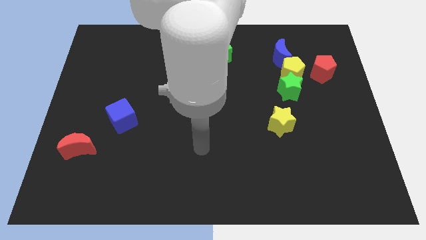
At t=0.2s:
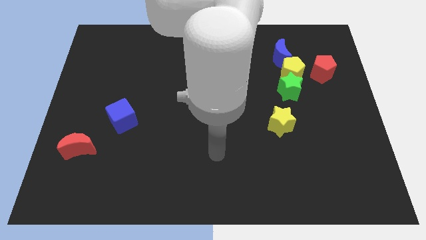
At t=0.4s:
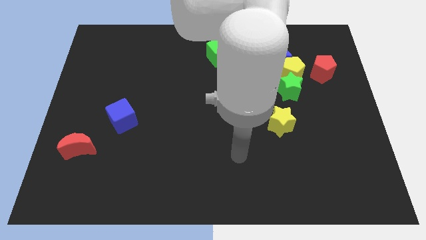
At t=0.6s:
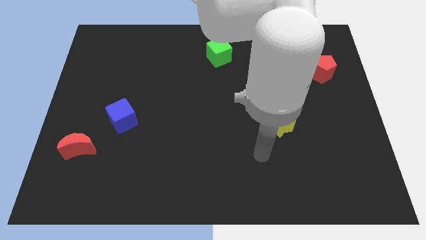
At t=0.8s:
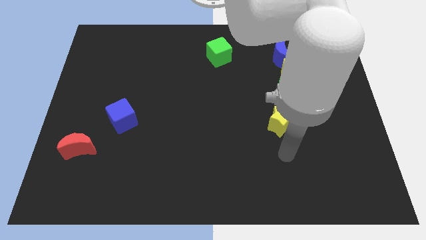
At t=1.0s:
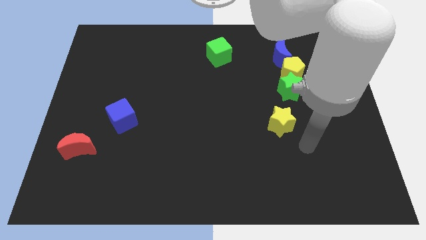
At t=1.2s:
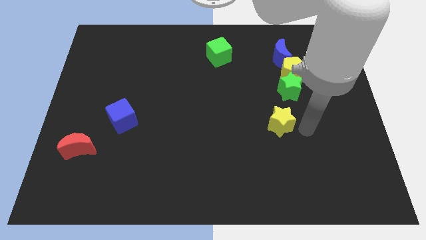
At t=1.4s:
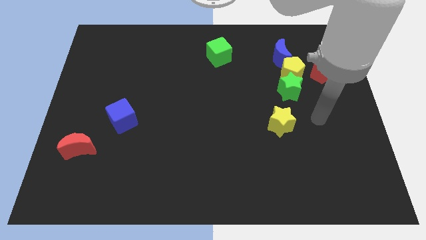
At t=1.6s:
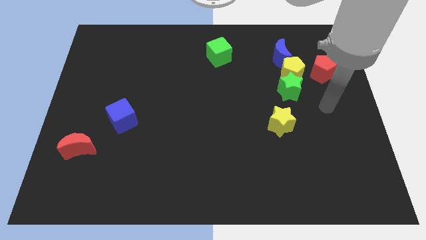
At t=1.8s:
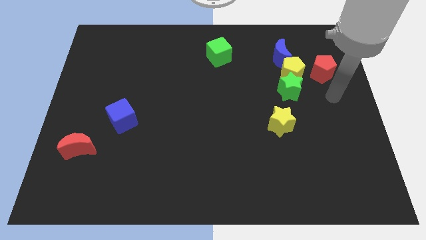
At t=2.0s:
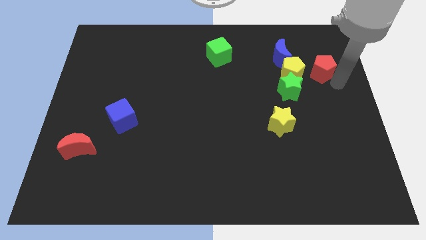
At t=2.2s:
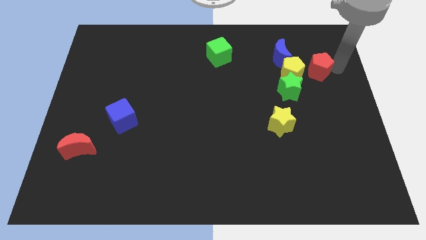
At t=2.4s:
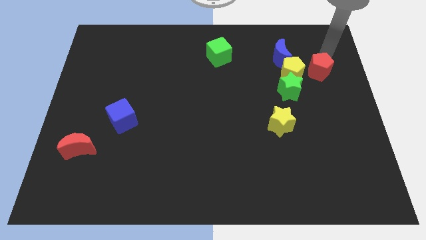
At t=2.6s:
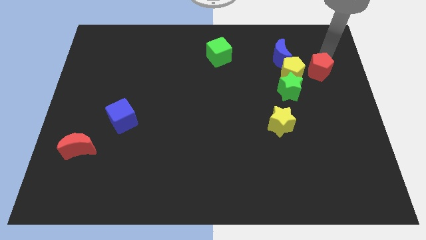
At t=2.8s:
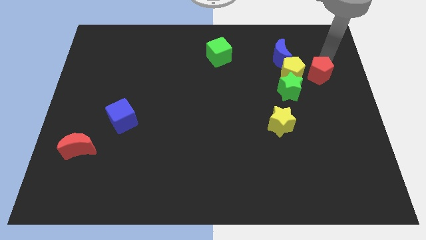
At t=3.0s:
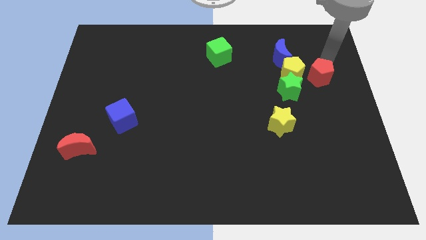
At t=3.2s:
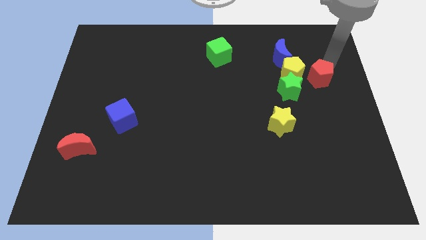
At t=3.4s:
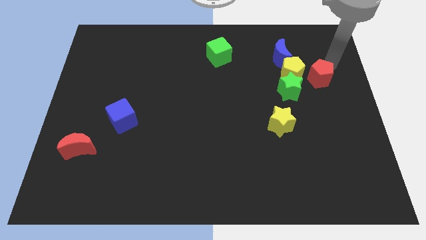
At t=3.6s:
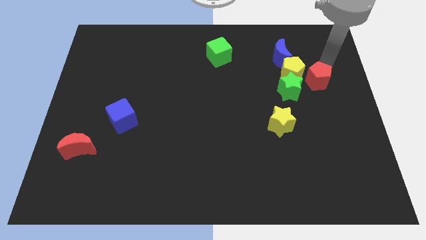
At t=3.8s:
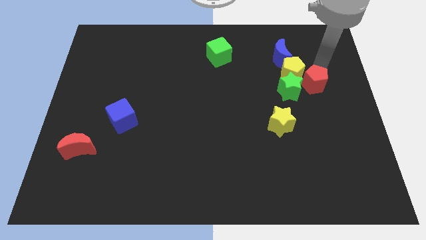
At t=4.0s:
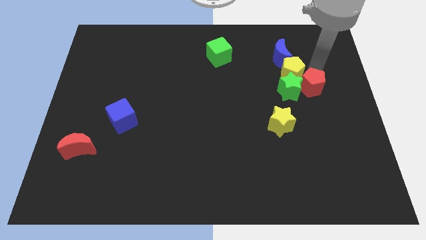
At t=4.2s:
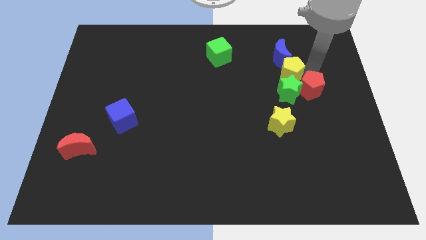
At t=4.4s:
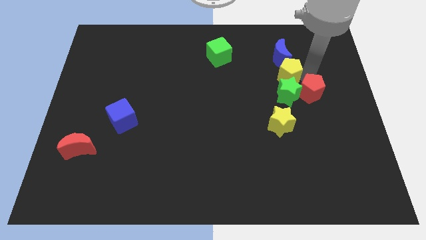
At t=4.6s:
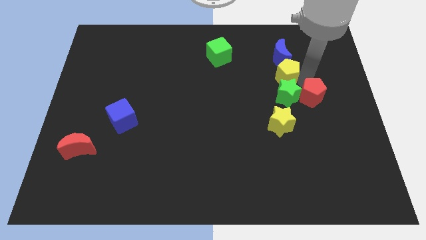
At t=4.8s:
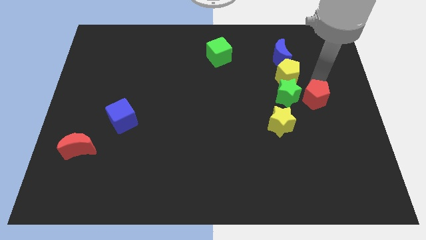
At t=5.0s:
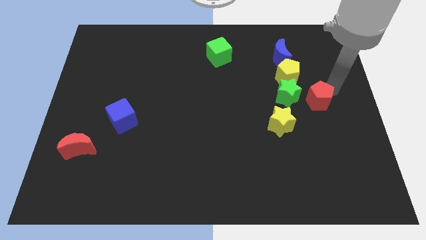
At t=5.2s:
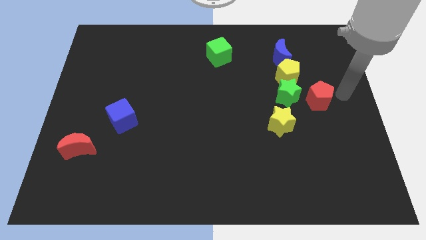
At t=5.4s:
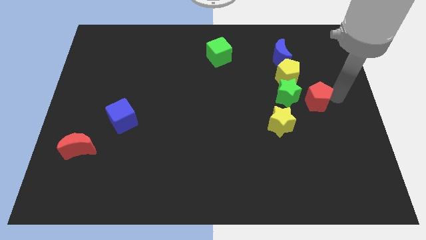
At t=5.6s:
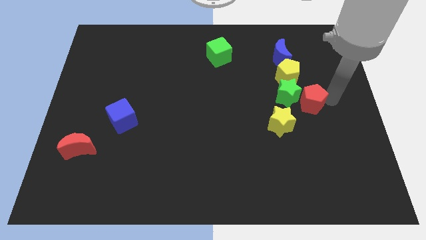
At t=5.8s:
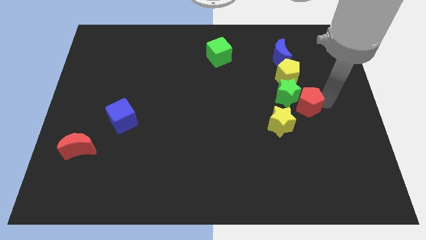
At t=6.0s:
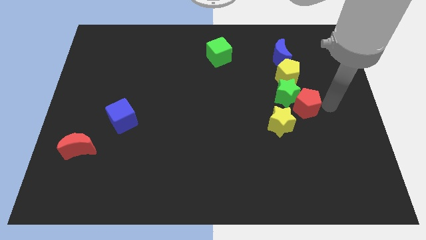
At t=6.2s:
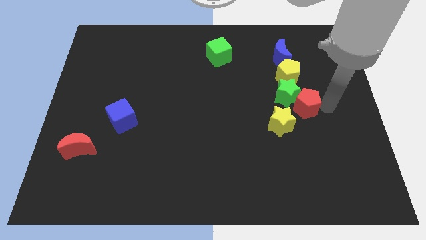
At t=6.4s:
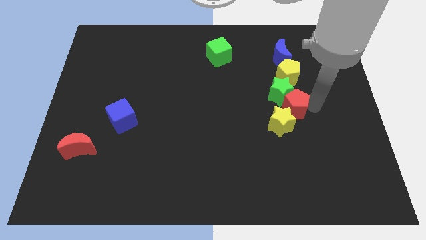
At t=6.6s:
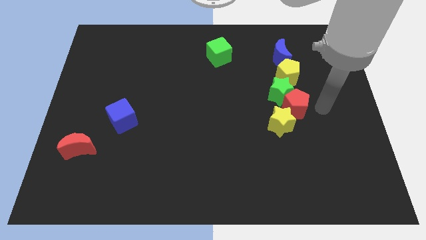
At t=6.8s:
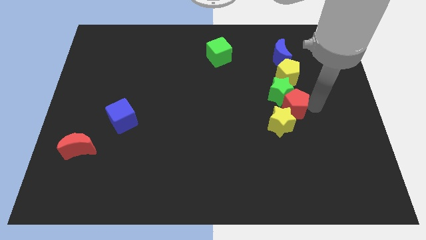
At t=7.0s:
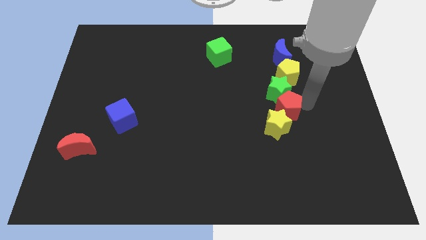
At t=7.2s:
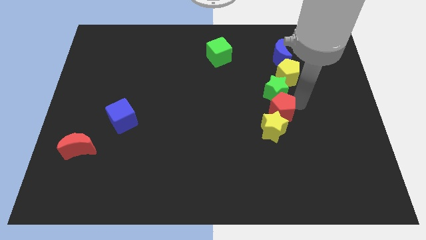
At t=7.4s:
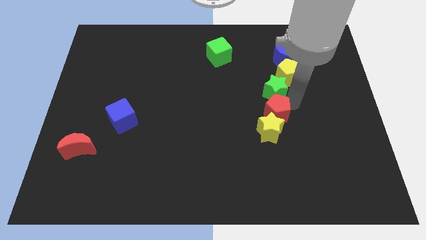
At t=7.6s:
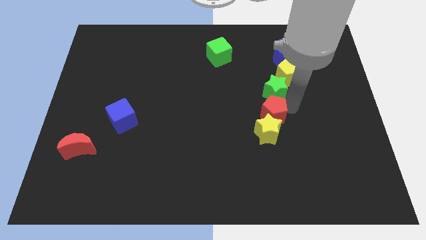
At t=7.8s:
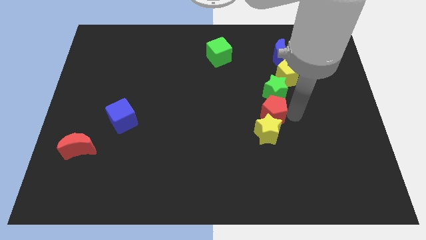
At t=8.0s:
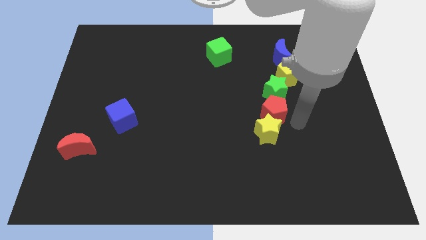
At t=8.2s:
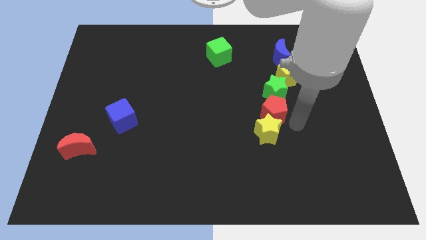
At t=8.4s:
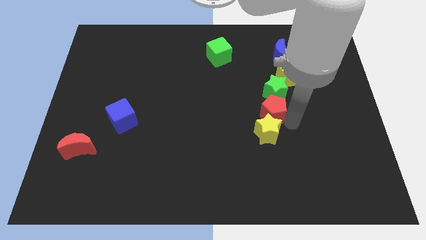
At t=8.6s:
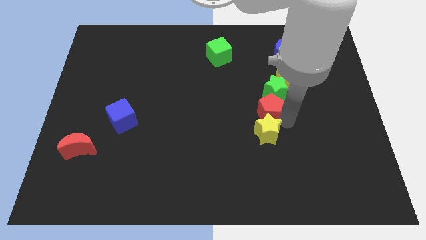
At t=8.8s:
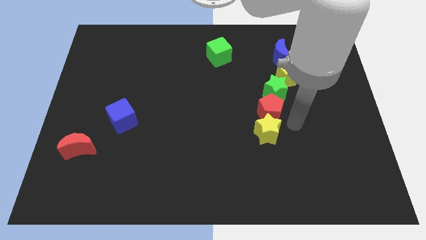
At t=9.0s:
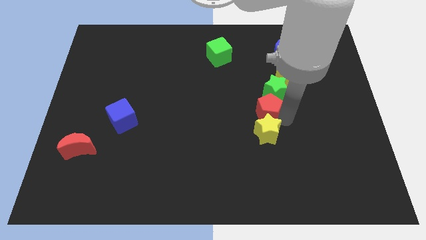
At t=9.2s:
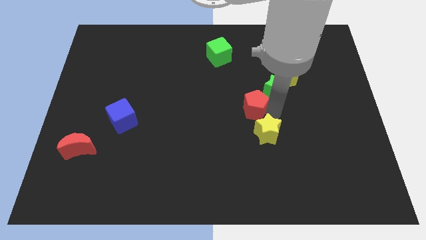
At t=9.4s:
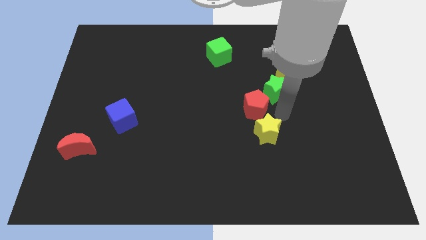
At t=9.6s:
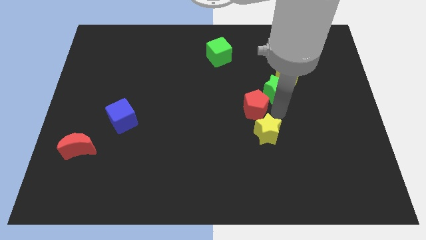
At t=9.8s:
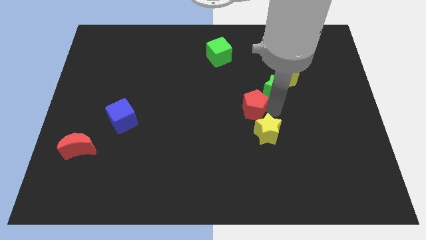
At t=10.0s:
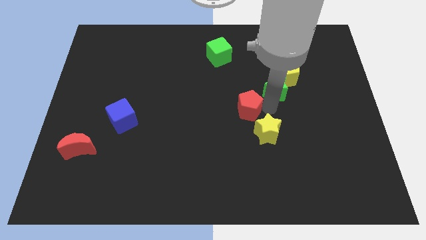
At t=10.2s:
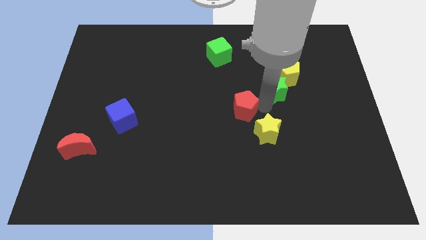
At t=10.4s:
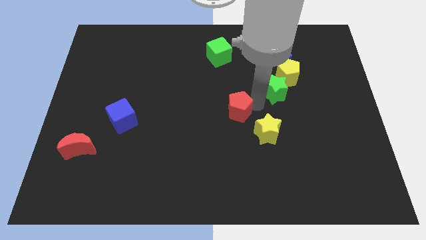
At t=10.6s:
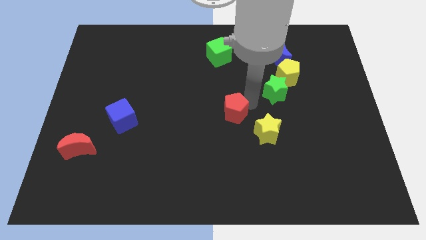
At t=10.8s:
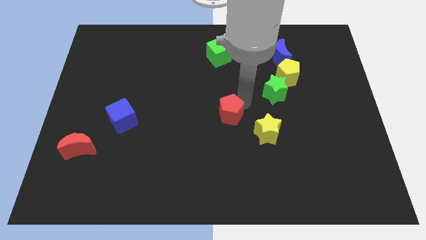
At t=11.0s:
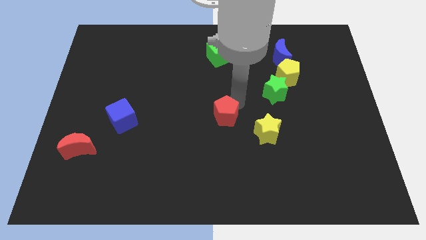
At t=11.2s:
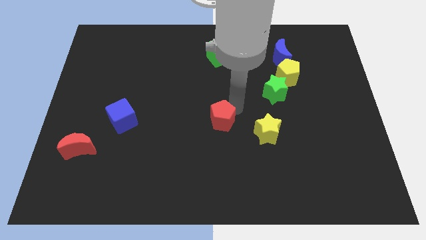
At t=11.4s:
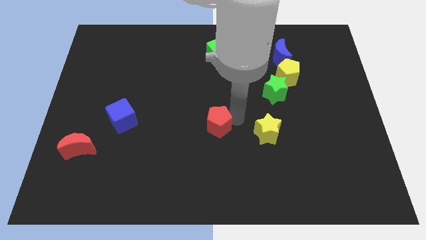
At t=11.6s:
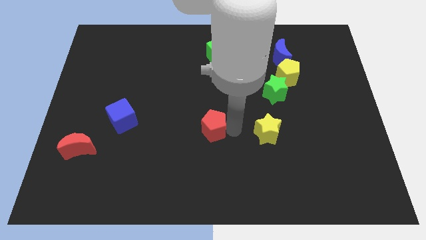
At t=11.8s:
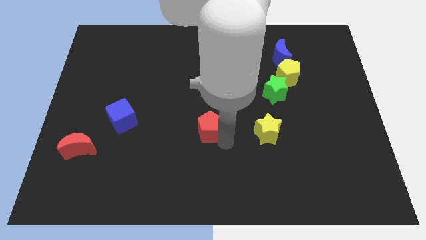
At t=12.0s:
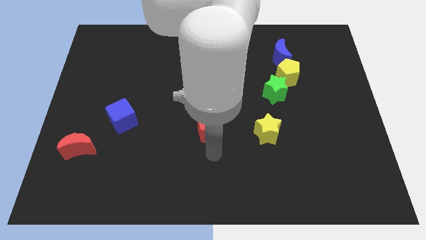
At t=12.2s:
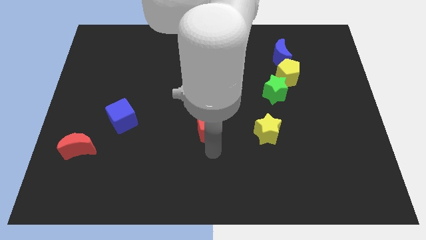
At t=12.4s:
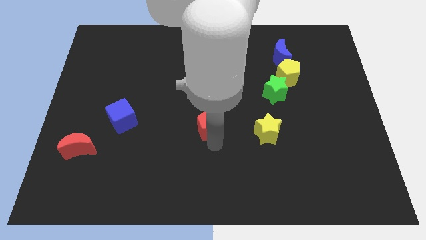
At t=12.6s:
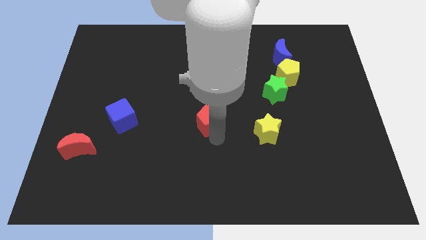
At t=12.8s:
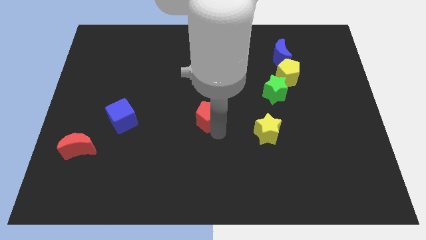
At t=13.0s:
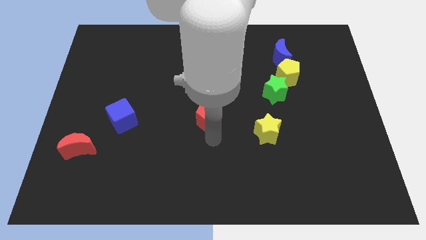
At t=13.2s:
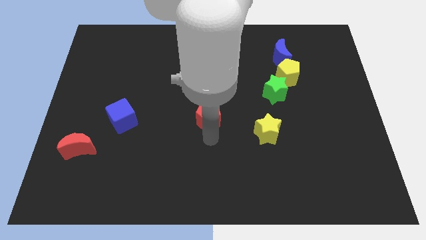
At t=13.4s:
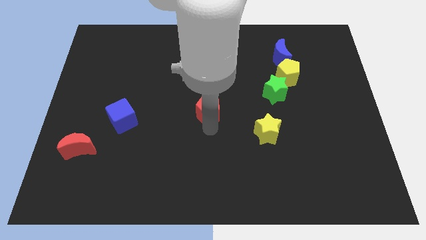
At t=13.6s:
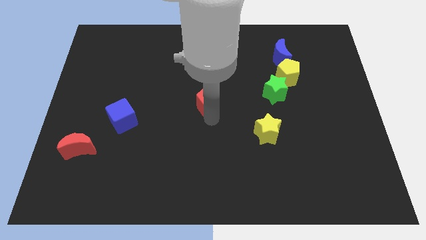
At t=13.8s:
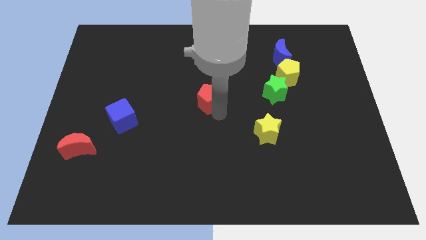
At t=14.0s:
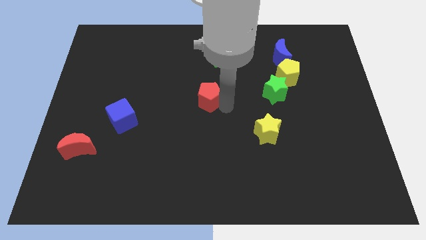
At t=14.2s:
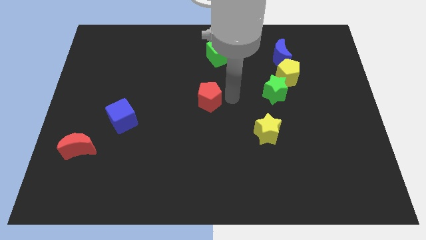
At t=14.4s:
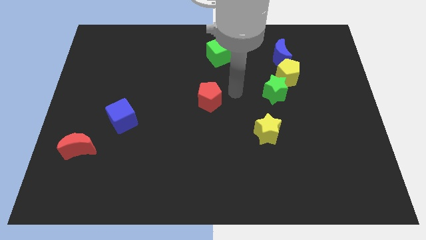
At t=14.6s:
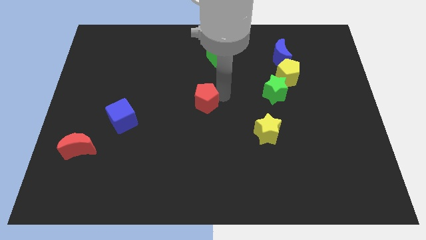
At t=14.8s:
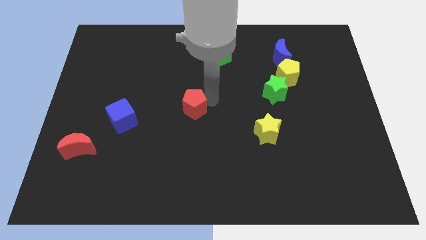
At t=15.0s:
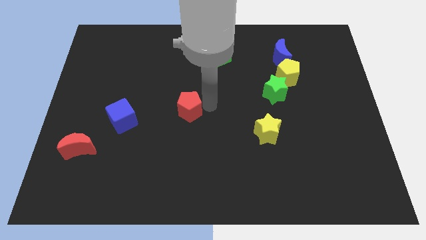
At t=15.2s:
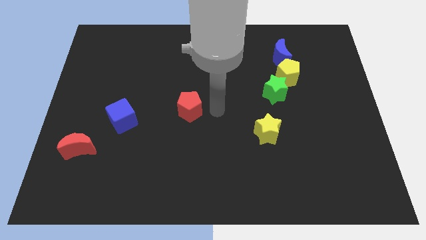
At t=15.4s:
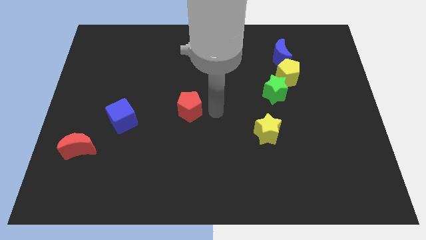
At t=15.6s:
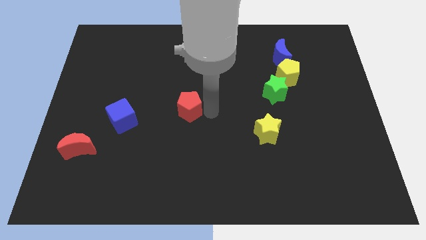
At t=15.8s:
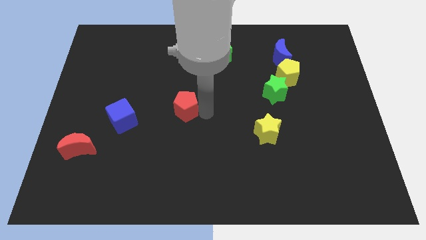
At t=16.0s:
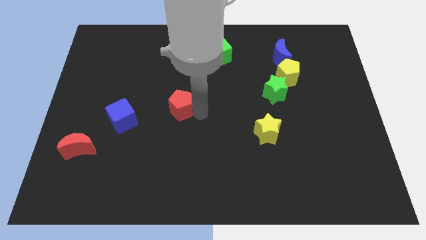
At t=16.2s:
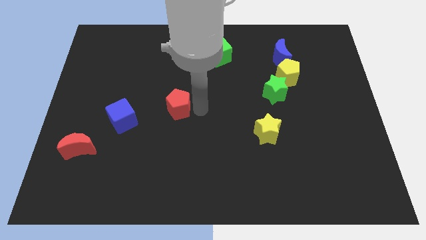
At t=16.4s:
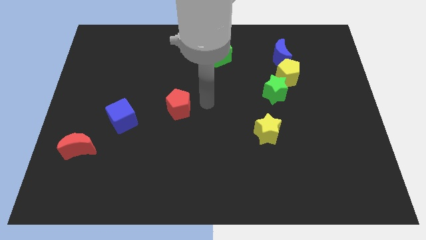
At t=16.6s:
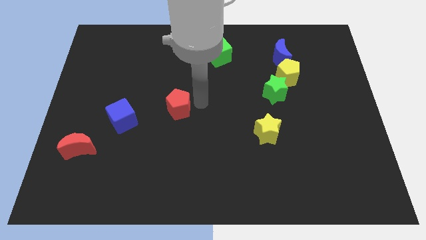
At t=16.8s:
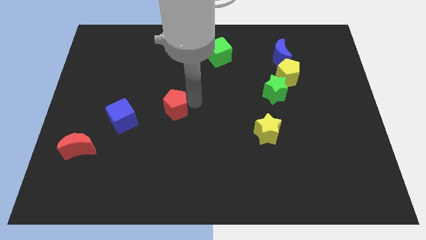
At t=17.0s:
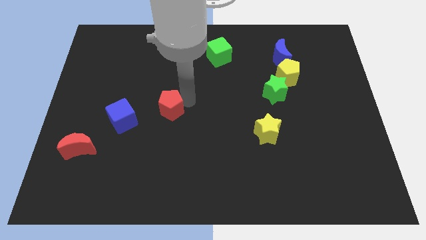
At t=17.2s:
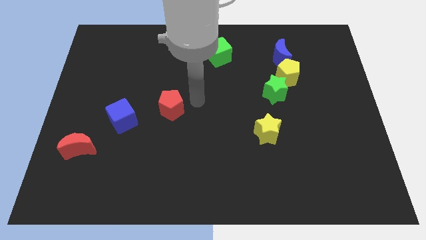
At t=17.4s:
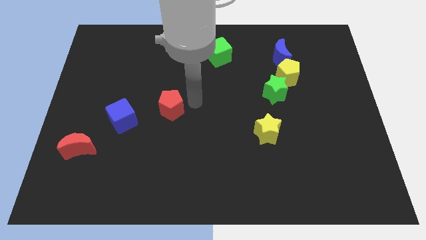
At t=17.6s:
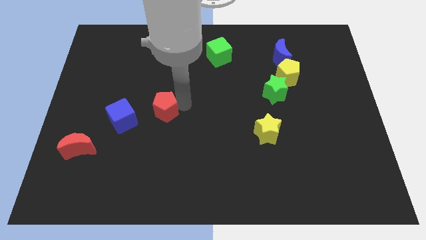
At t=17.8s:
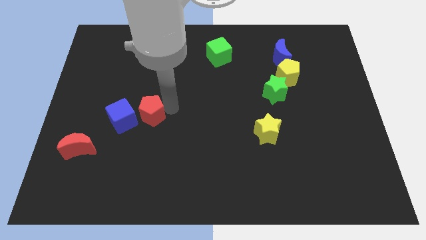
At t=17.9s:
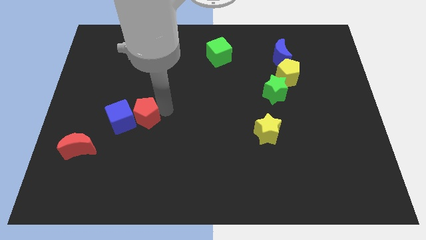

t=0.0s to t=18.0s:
push the red pentagon towards the blue cube
